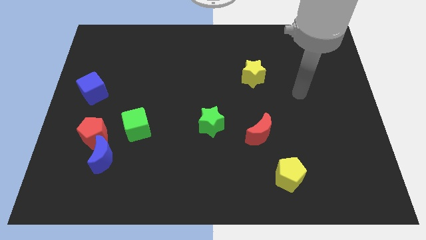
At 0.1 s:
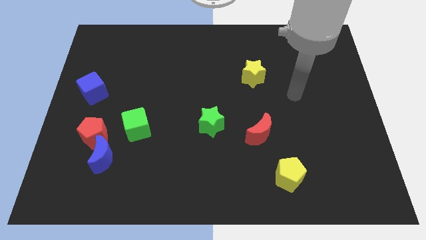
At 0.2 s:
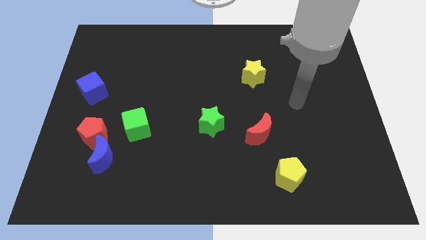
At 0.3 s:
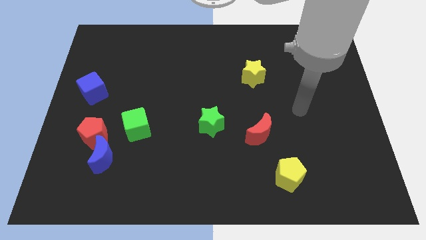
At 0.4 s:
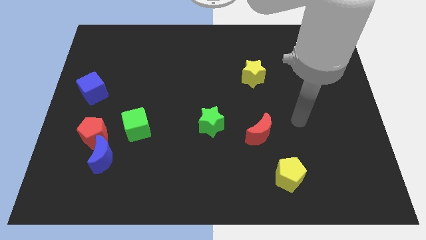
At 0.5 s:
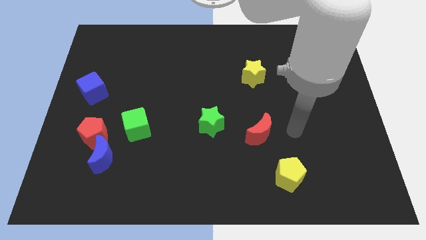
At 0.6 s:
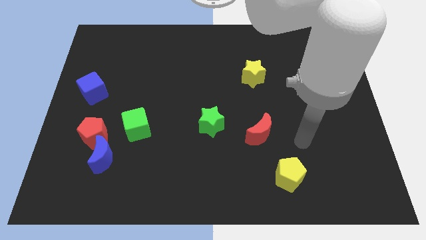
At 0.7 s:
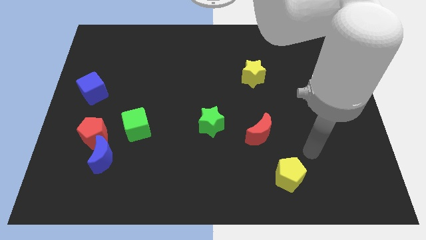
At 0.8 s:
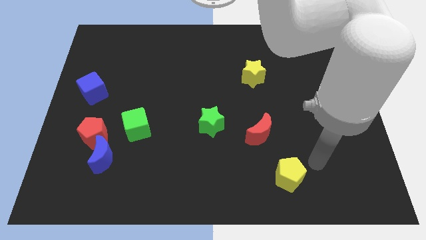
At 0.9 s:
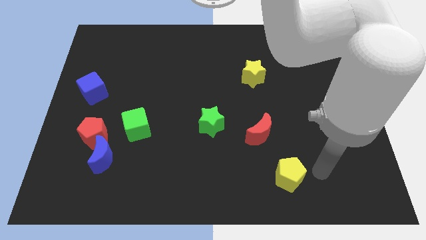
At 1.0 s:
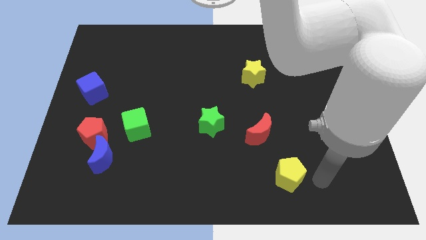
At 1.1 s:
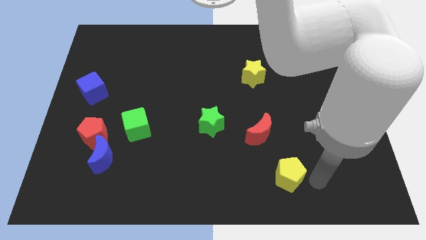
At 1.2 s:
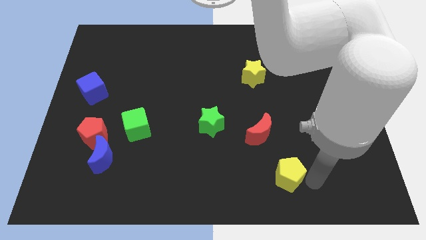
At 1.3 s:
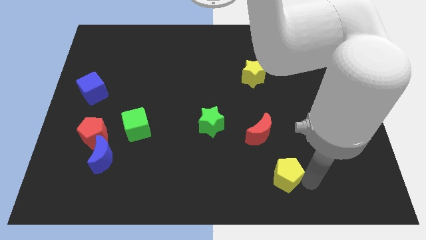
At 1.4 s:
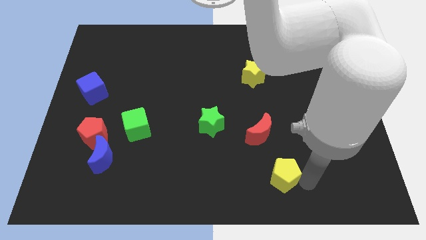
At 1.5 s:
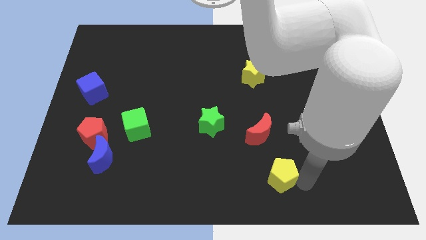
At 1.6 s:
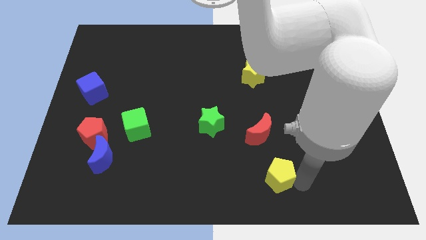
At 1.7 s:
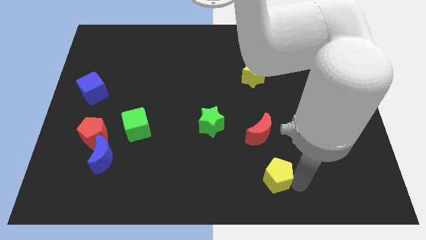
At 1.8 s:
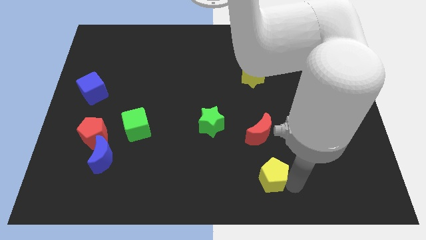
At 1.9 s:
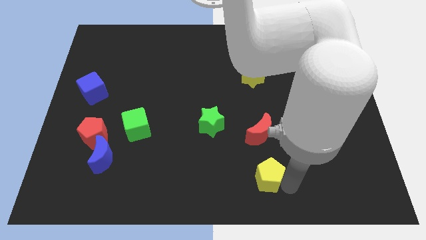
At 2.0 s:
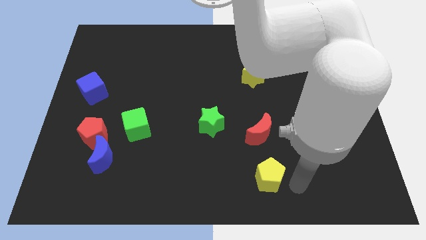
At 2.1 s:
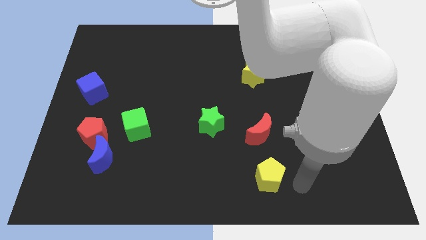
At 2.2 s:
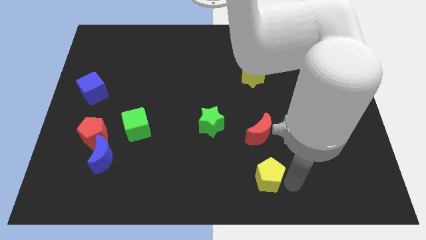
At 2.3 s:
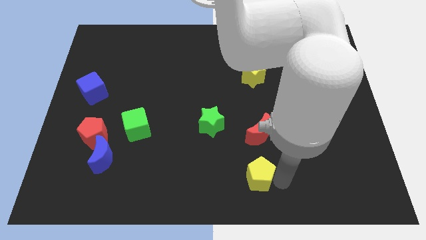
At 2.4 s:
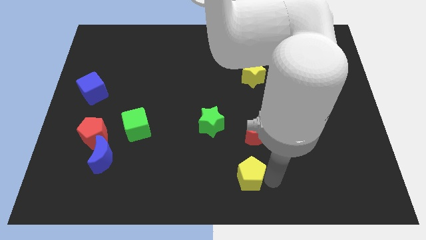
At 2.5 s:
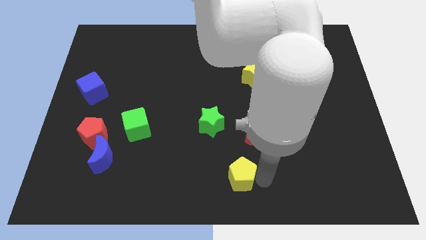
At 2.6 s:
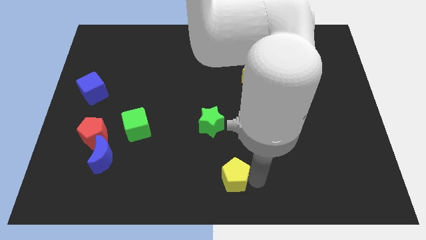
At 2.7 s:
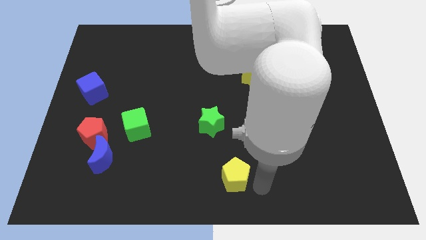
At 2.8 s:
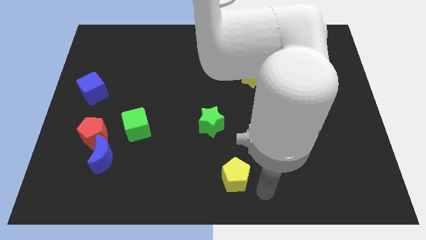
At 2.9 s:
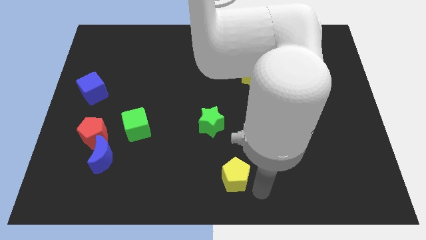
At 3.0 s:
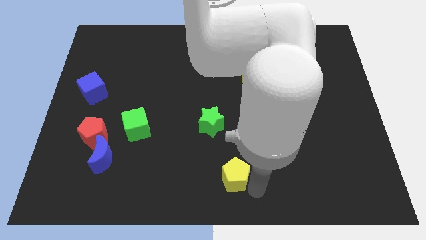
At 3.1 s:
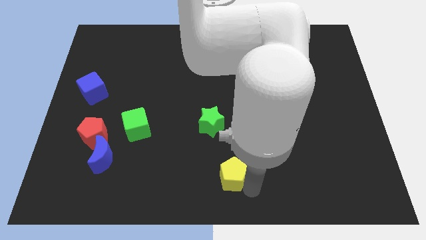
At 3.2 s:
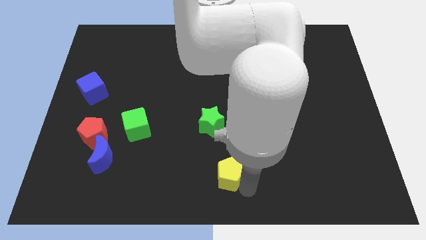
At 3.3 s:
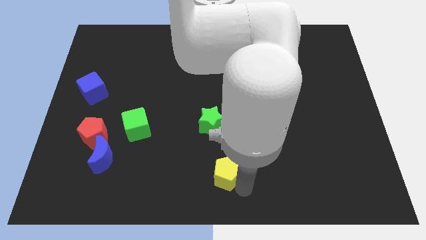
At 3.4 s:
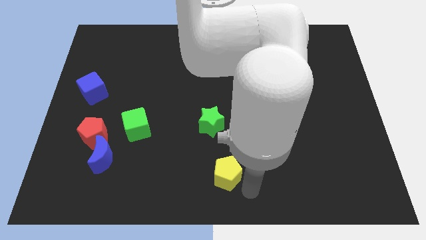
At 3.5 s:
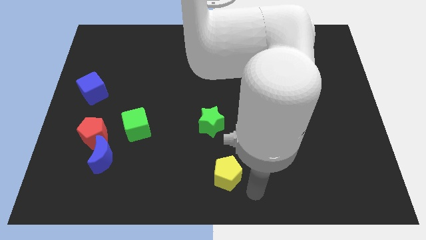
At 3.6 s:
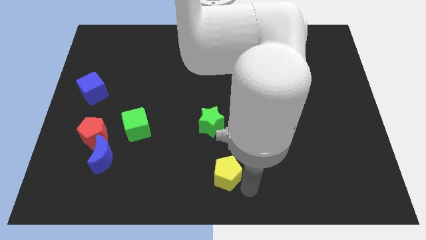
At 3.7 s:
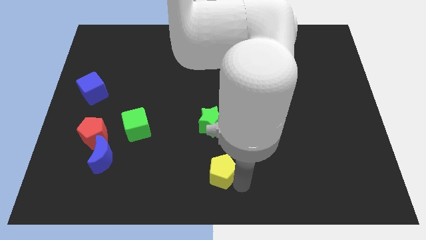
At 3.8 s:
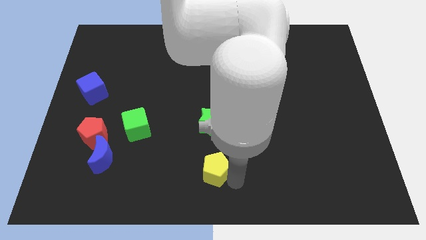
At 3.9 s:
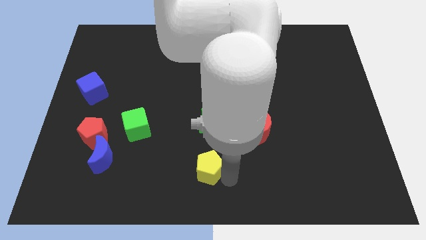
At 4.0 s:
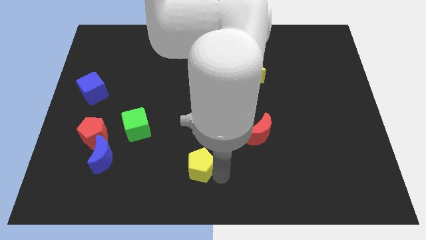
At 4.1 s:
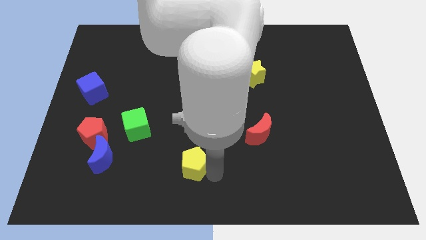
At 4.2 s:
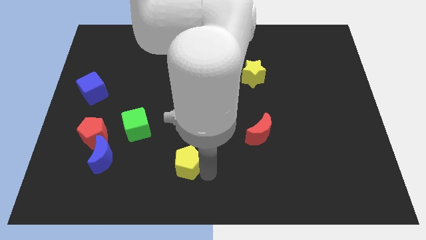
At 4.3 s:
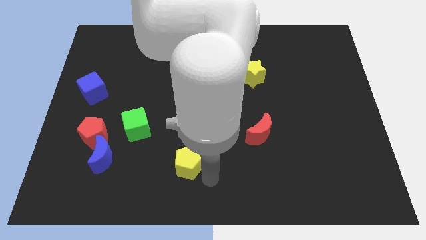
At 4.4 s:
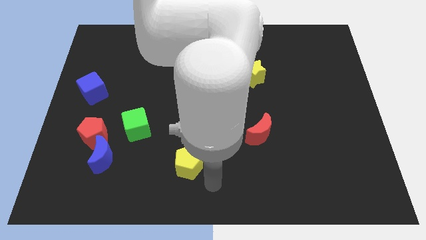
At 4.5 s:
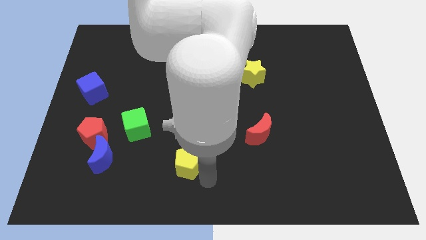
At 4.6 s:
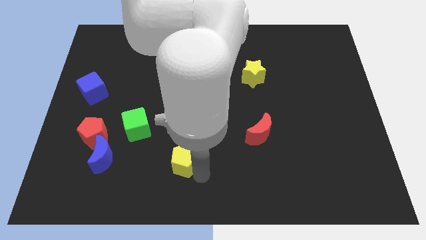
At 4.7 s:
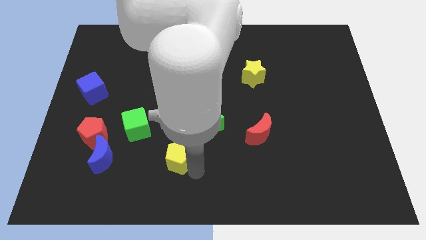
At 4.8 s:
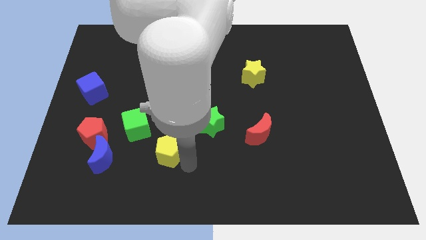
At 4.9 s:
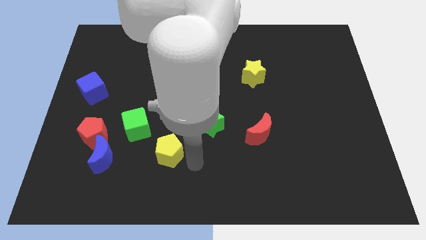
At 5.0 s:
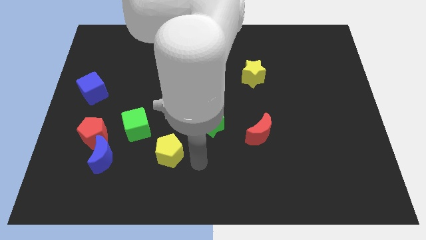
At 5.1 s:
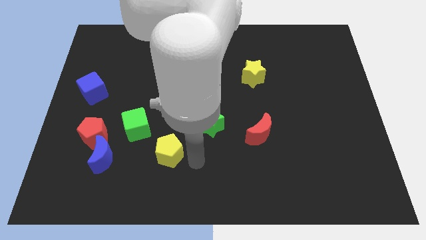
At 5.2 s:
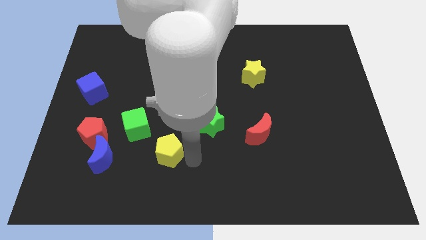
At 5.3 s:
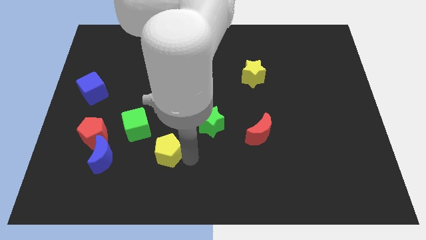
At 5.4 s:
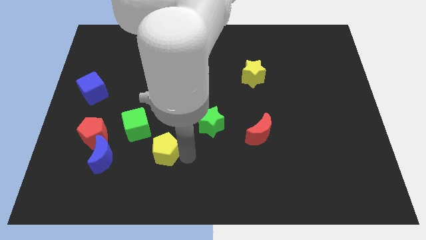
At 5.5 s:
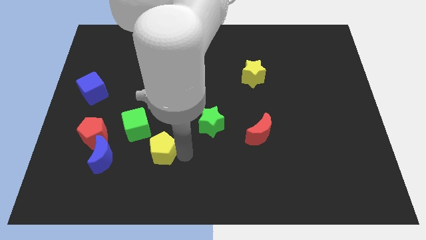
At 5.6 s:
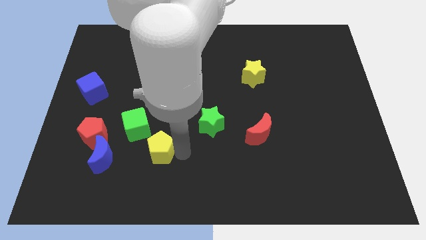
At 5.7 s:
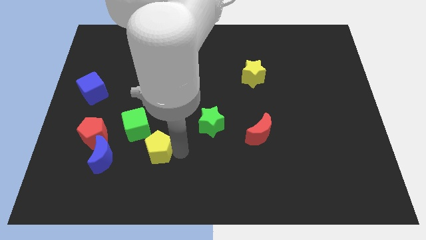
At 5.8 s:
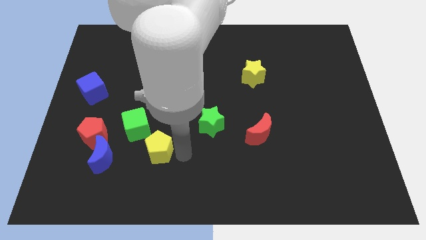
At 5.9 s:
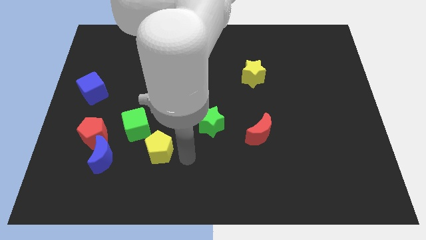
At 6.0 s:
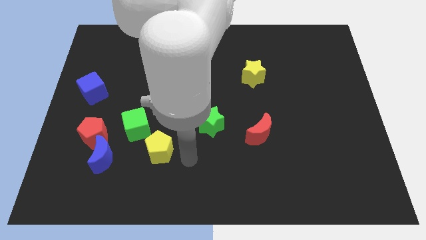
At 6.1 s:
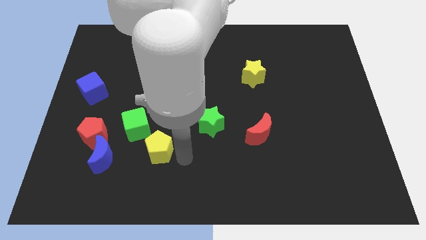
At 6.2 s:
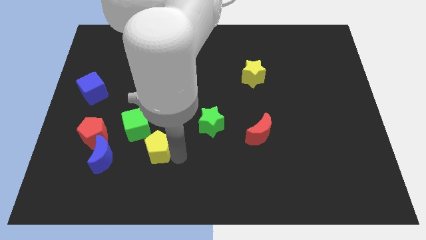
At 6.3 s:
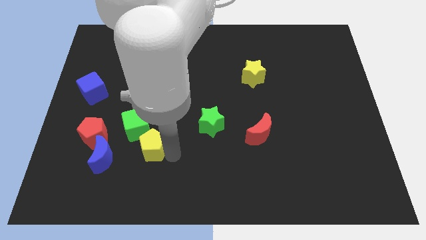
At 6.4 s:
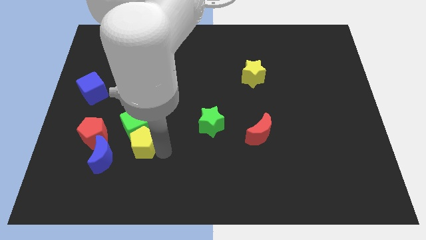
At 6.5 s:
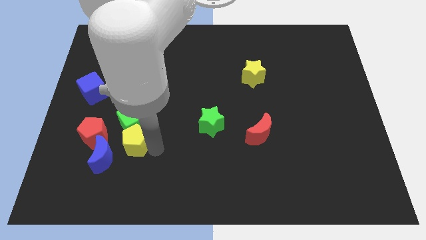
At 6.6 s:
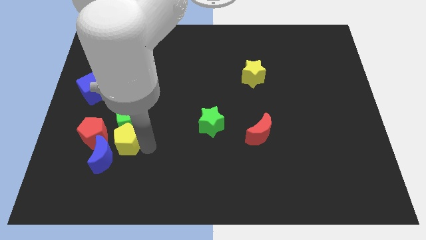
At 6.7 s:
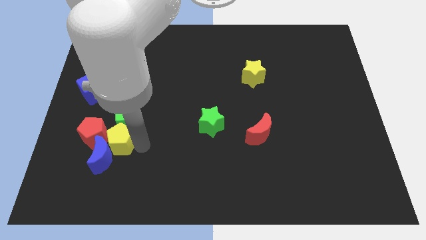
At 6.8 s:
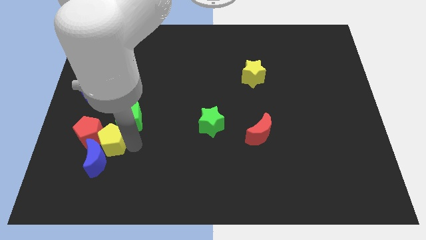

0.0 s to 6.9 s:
push the yellow pentagon close to the red pentagon

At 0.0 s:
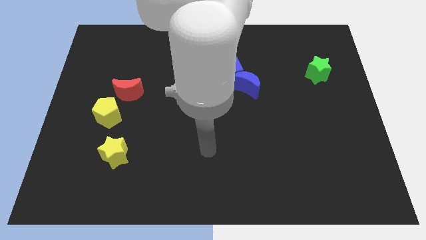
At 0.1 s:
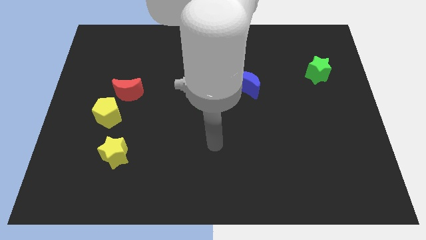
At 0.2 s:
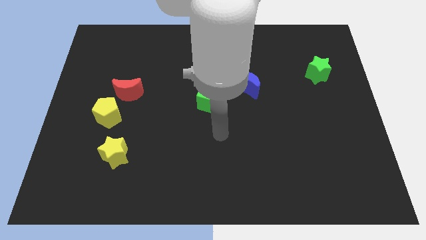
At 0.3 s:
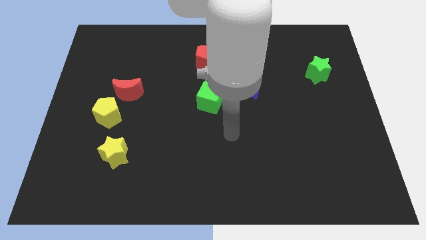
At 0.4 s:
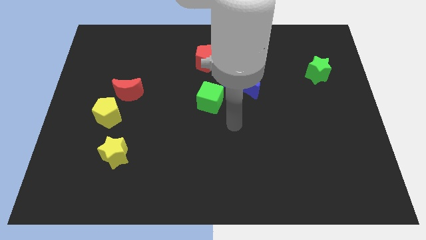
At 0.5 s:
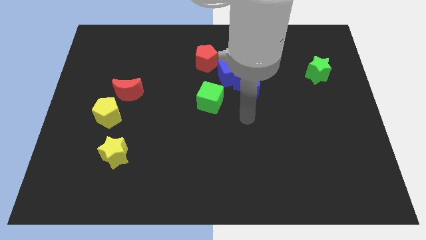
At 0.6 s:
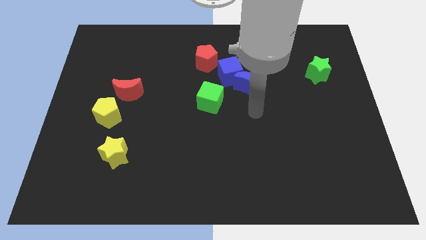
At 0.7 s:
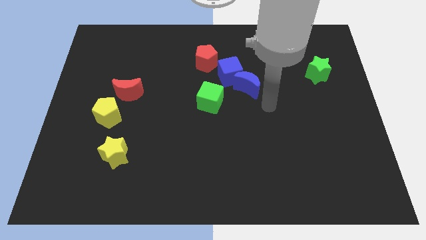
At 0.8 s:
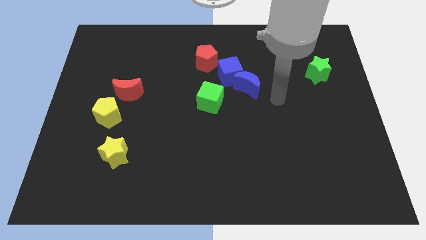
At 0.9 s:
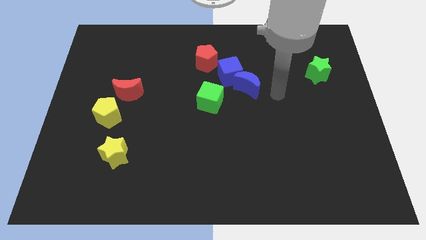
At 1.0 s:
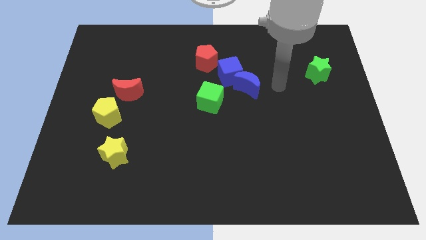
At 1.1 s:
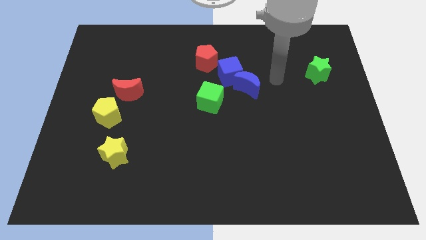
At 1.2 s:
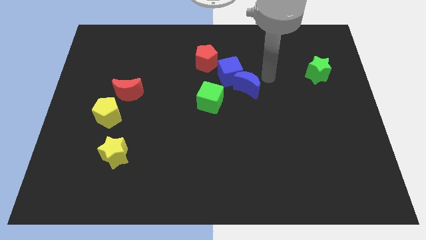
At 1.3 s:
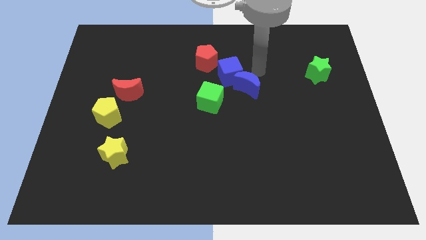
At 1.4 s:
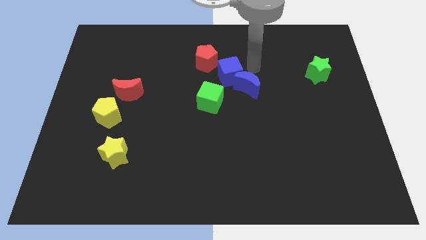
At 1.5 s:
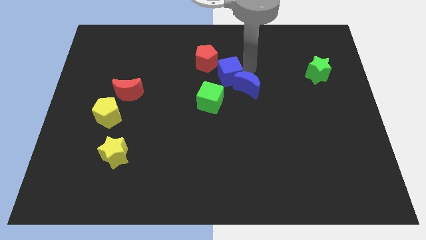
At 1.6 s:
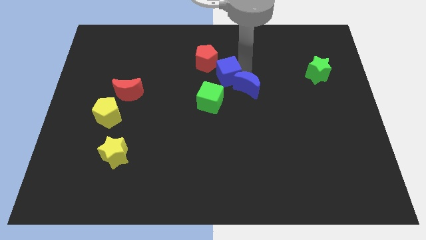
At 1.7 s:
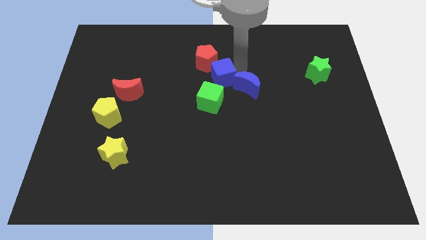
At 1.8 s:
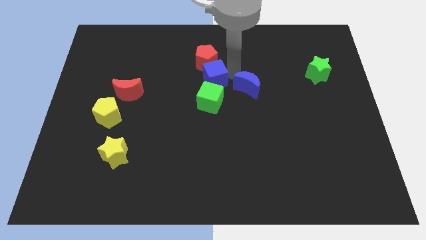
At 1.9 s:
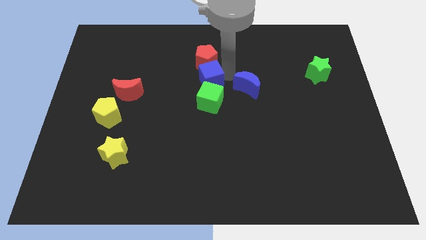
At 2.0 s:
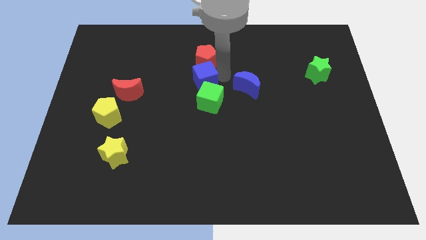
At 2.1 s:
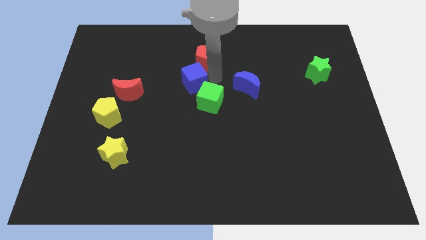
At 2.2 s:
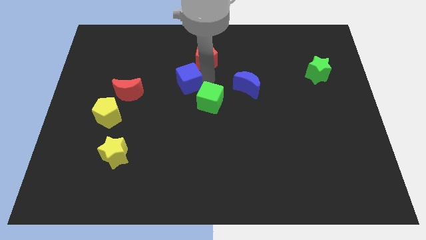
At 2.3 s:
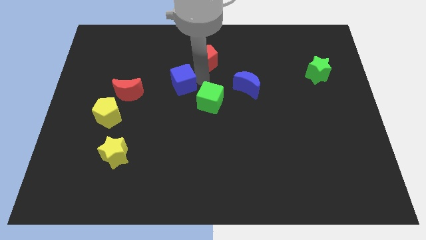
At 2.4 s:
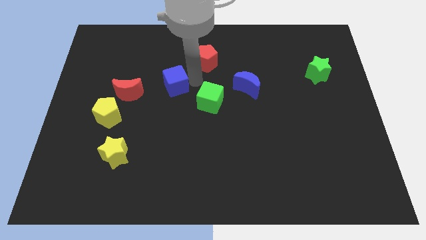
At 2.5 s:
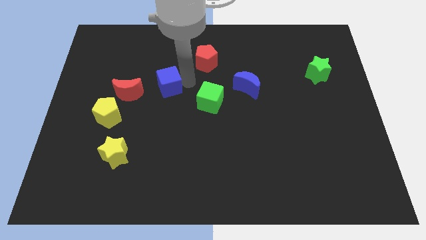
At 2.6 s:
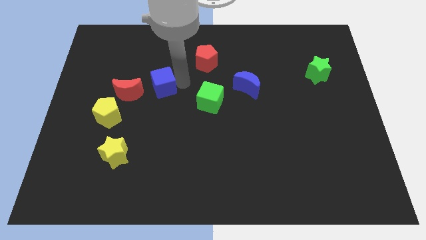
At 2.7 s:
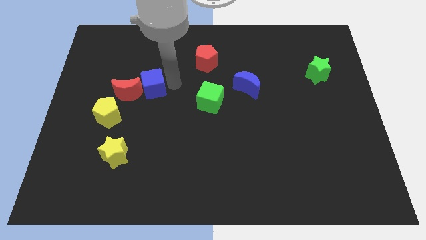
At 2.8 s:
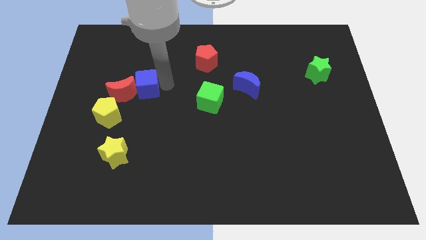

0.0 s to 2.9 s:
push the blue cube to the red moon
